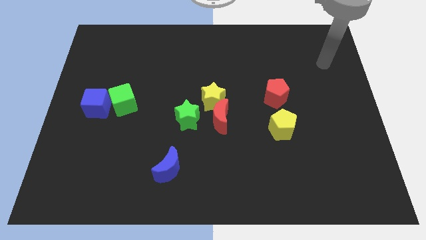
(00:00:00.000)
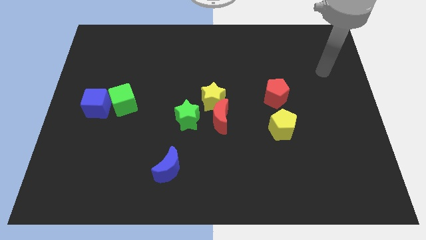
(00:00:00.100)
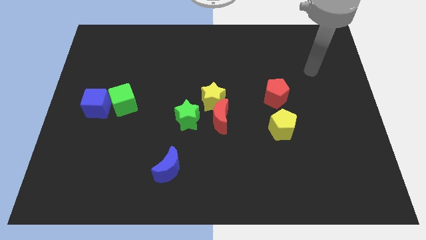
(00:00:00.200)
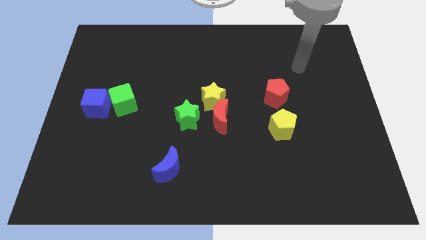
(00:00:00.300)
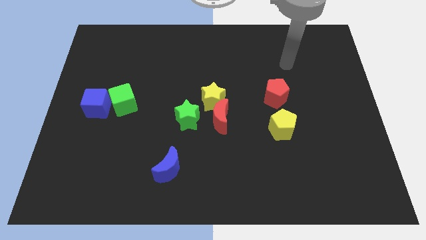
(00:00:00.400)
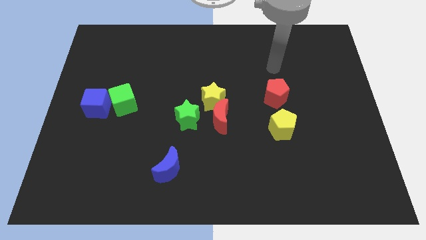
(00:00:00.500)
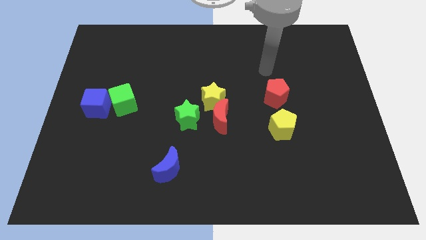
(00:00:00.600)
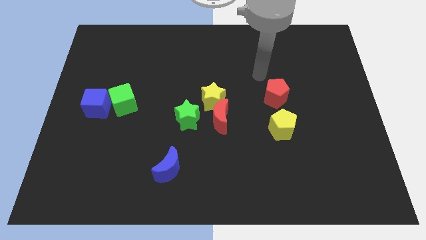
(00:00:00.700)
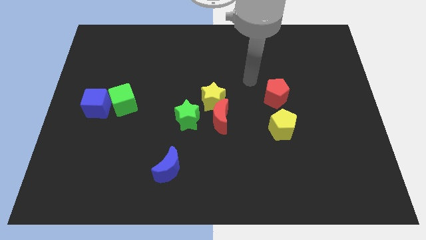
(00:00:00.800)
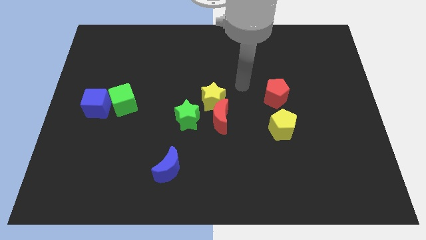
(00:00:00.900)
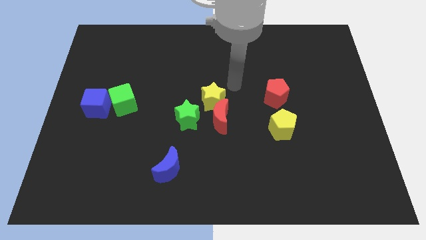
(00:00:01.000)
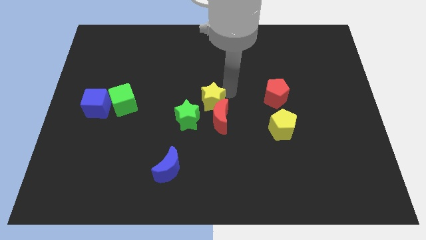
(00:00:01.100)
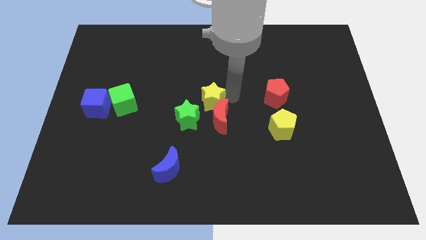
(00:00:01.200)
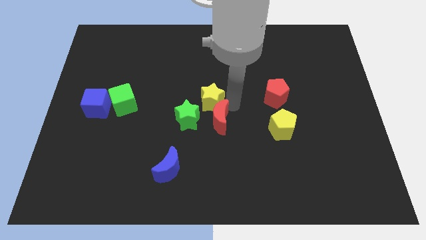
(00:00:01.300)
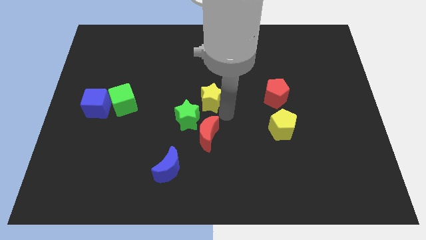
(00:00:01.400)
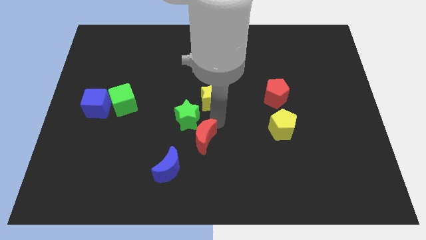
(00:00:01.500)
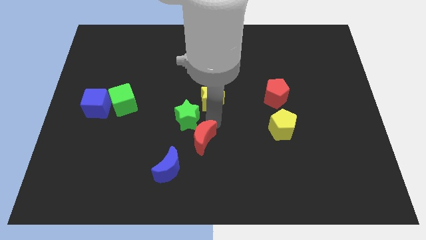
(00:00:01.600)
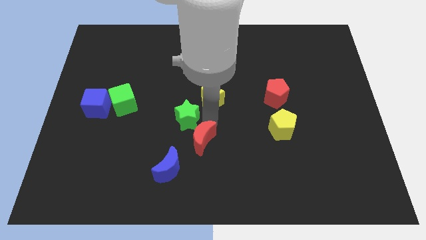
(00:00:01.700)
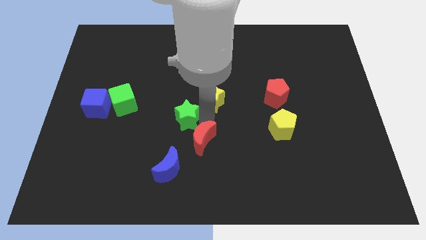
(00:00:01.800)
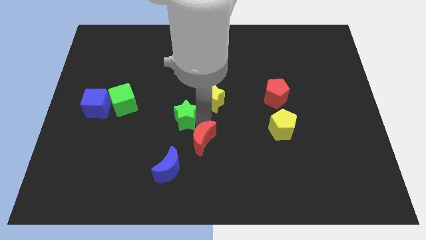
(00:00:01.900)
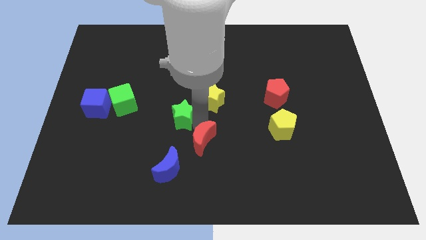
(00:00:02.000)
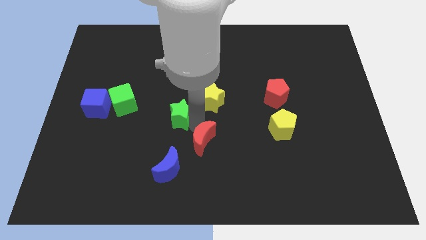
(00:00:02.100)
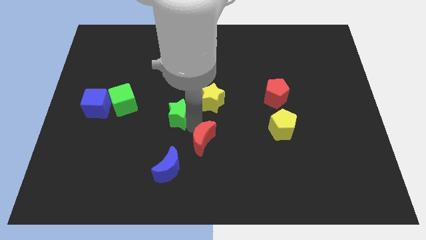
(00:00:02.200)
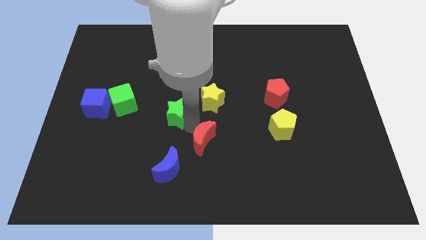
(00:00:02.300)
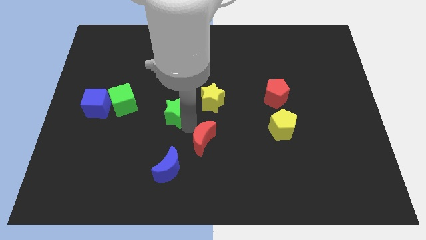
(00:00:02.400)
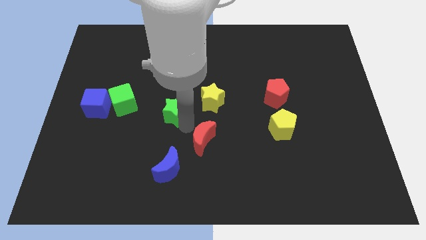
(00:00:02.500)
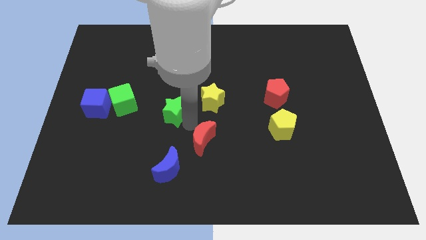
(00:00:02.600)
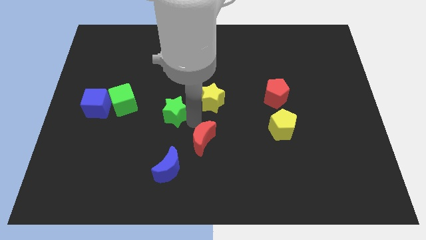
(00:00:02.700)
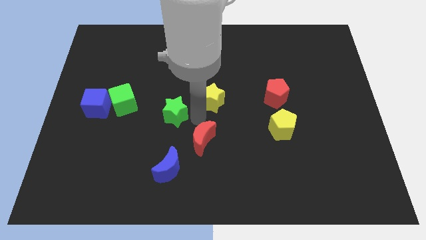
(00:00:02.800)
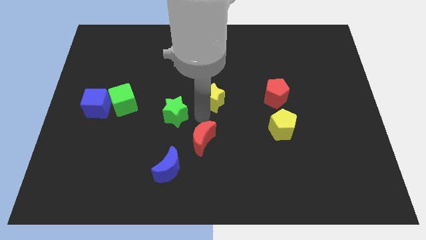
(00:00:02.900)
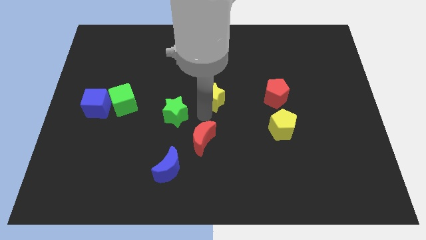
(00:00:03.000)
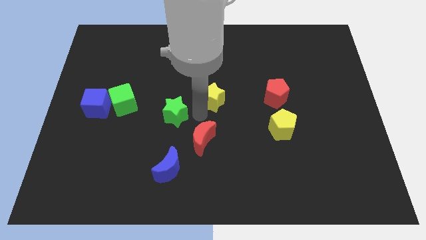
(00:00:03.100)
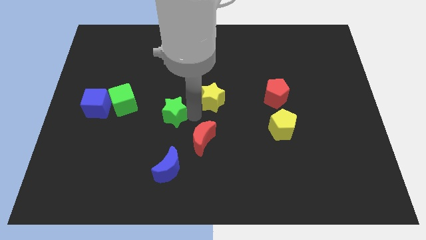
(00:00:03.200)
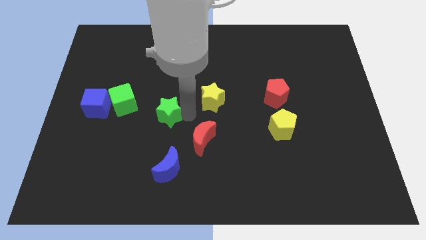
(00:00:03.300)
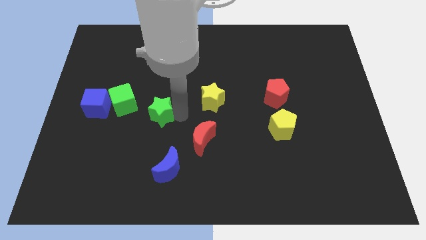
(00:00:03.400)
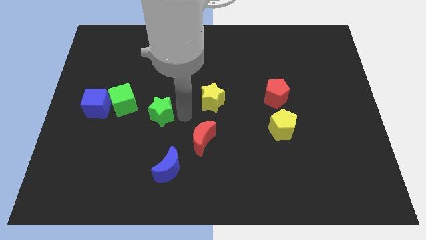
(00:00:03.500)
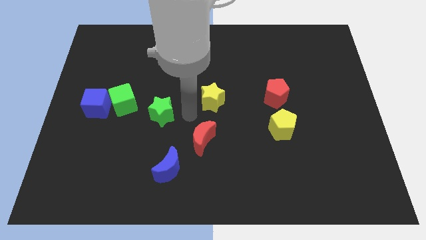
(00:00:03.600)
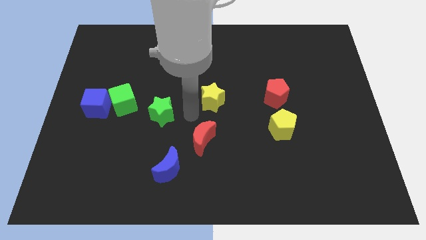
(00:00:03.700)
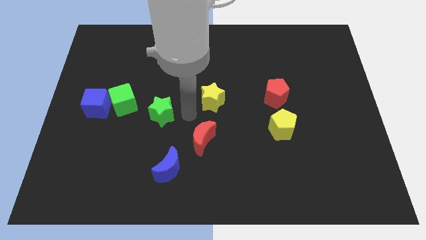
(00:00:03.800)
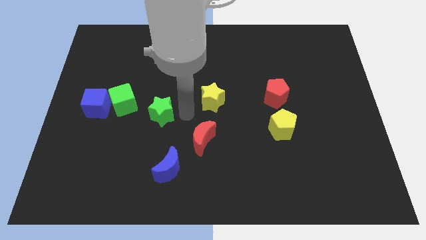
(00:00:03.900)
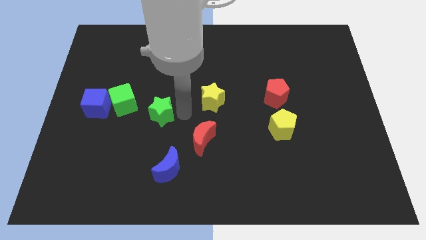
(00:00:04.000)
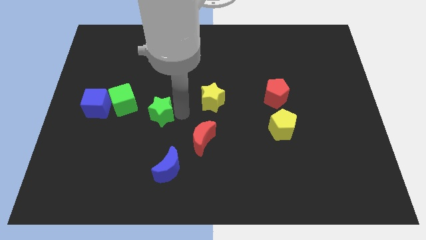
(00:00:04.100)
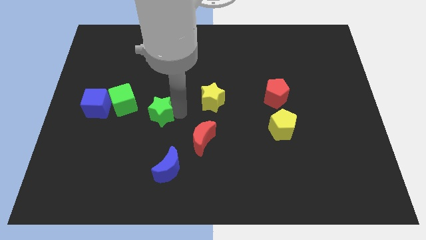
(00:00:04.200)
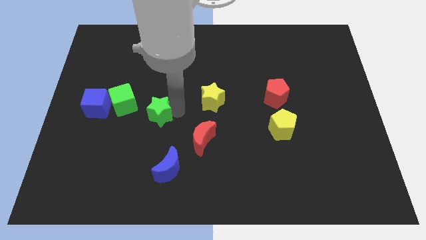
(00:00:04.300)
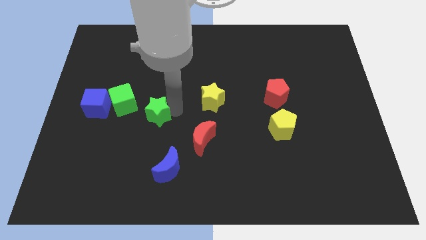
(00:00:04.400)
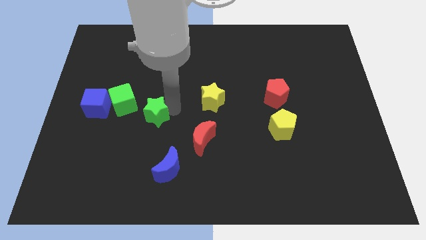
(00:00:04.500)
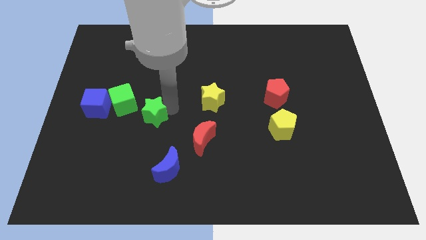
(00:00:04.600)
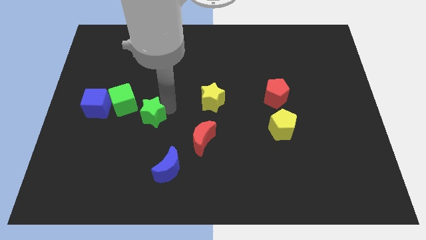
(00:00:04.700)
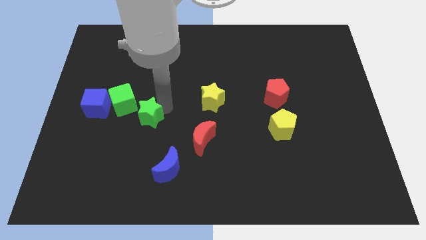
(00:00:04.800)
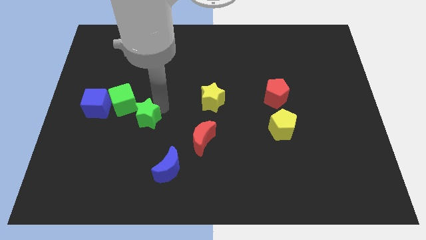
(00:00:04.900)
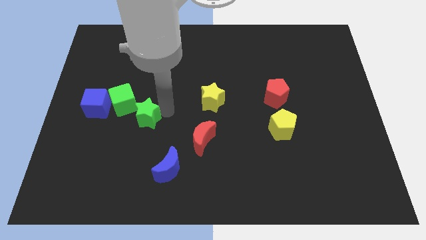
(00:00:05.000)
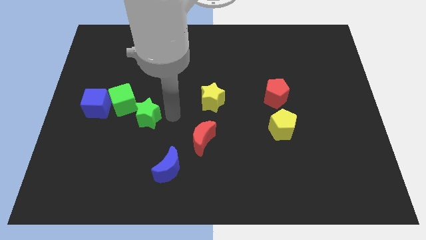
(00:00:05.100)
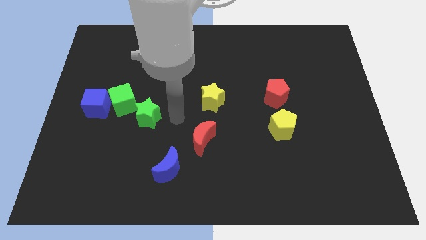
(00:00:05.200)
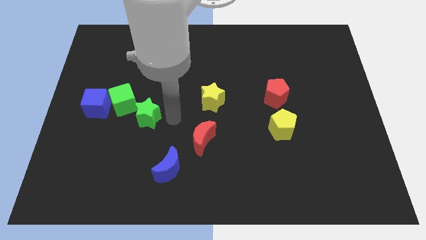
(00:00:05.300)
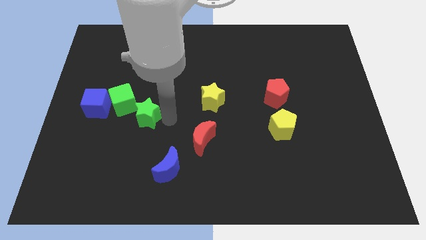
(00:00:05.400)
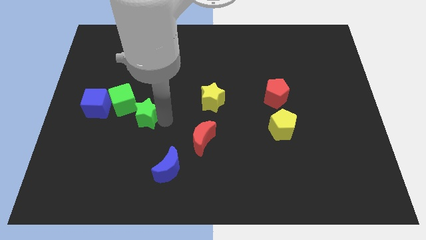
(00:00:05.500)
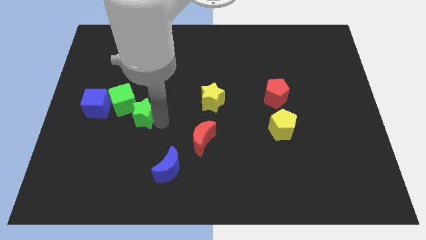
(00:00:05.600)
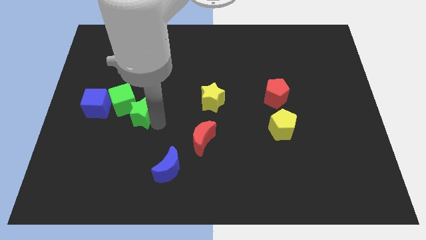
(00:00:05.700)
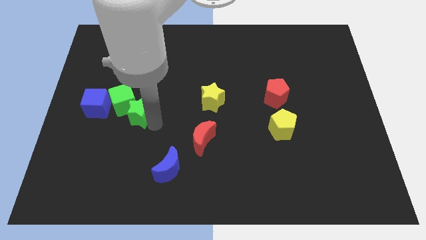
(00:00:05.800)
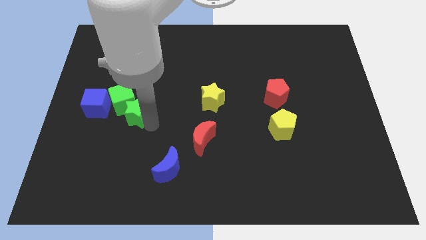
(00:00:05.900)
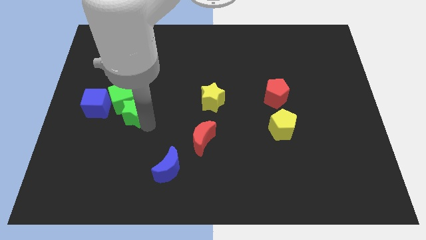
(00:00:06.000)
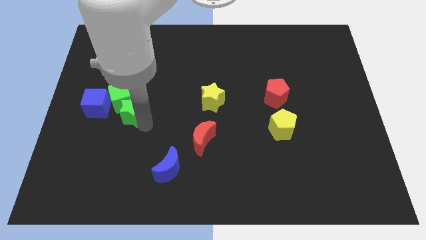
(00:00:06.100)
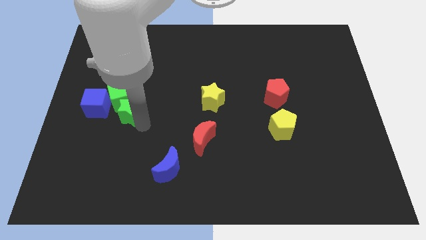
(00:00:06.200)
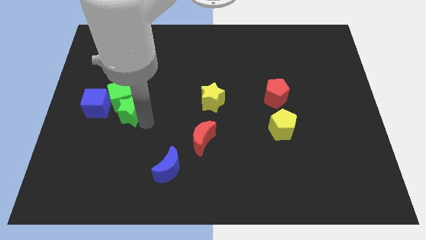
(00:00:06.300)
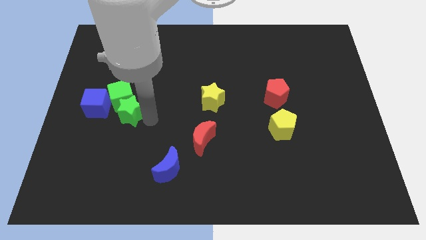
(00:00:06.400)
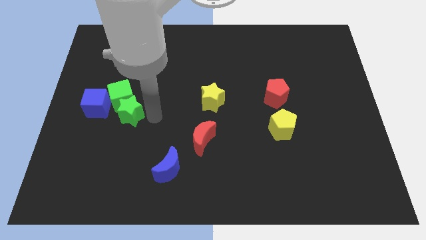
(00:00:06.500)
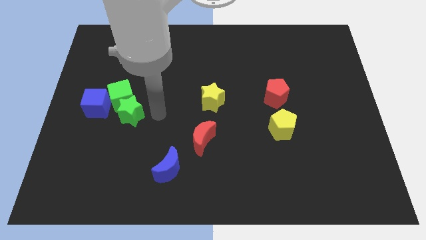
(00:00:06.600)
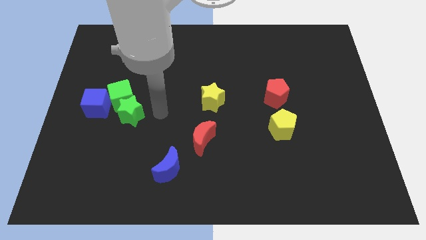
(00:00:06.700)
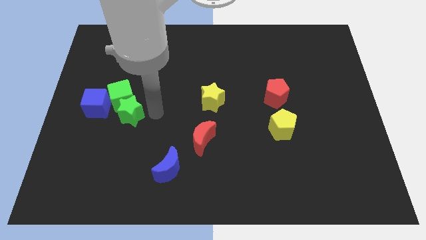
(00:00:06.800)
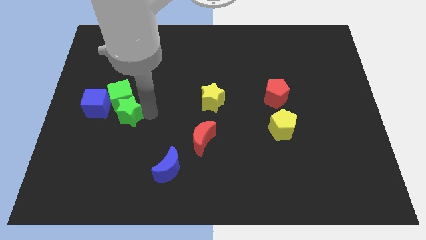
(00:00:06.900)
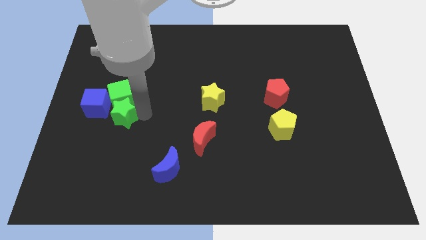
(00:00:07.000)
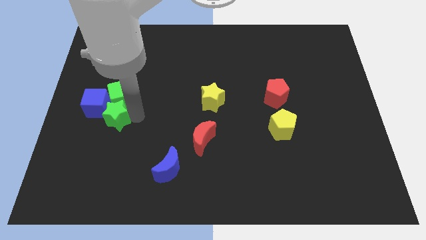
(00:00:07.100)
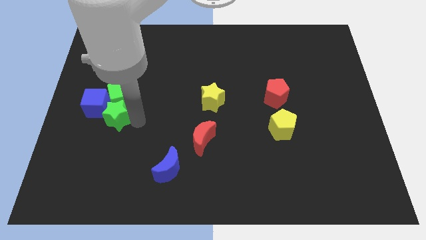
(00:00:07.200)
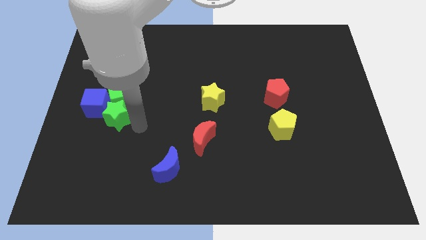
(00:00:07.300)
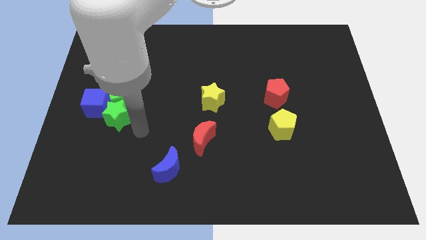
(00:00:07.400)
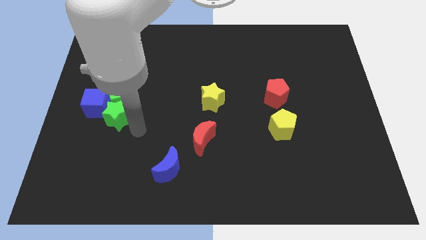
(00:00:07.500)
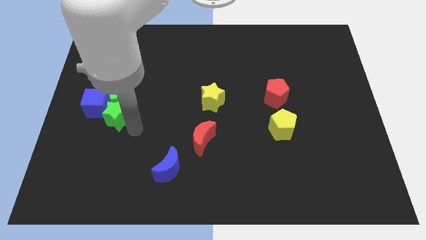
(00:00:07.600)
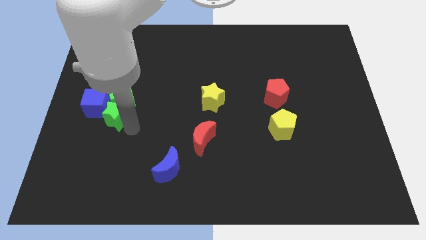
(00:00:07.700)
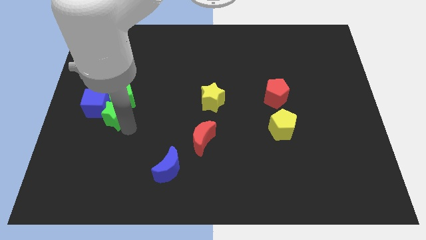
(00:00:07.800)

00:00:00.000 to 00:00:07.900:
slide the green star close to the blue cube
